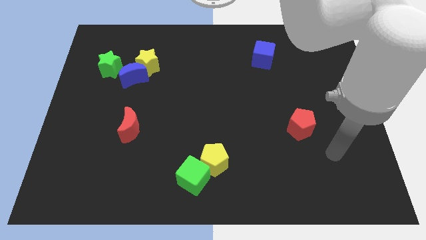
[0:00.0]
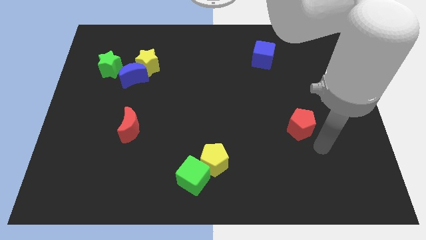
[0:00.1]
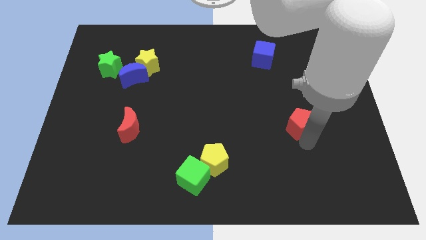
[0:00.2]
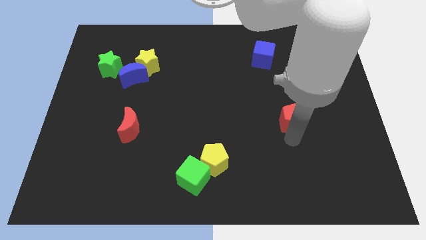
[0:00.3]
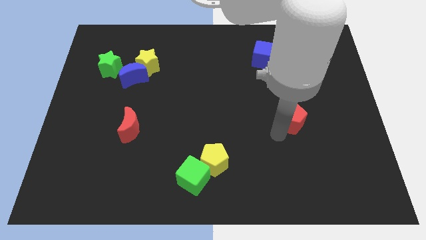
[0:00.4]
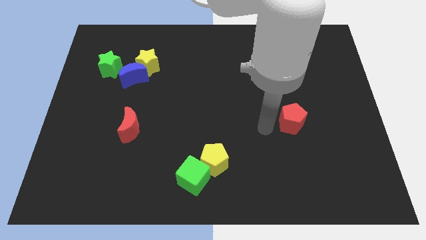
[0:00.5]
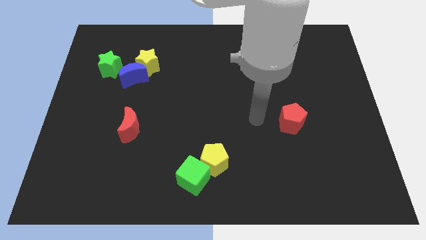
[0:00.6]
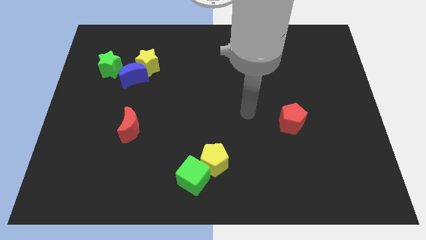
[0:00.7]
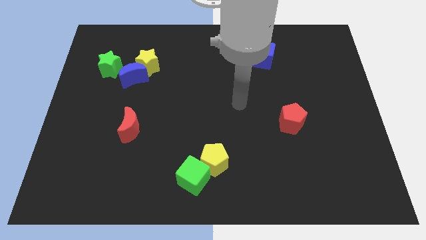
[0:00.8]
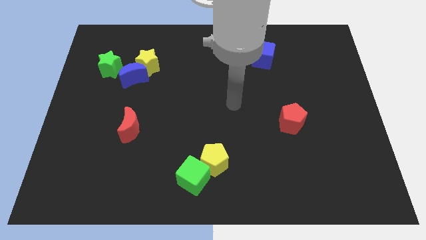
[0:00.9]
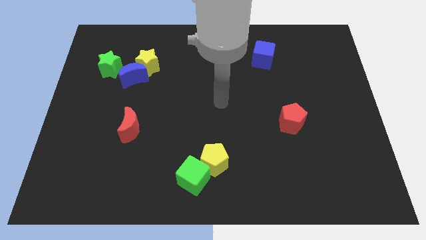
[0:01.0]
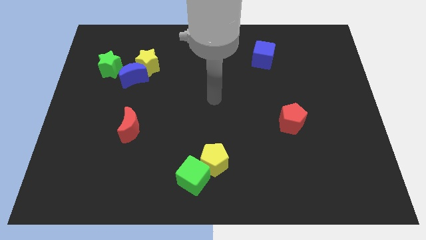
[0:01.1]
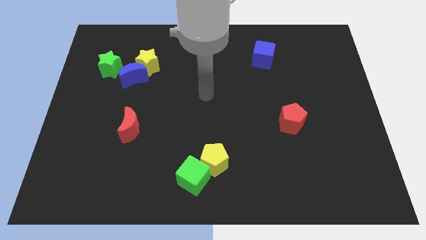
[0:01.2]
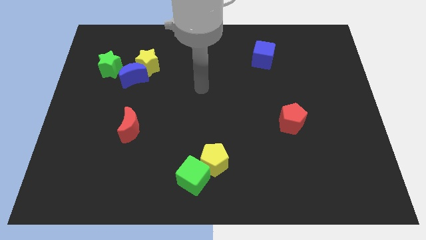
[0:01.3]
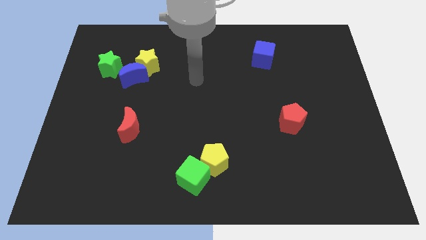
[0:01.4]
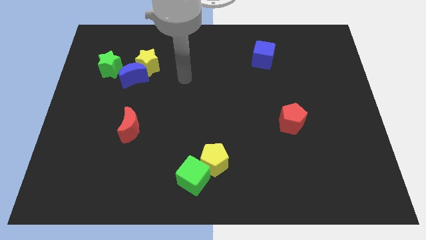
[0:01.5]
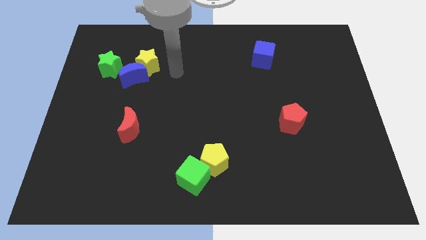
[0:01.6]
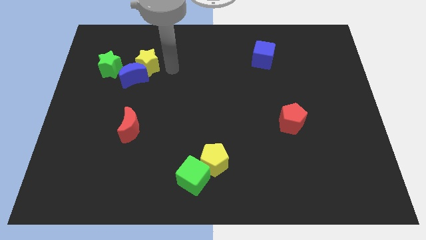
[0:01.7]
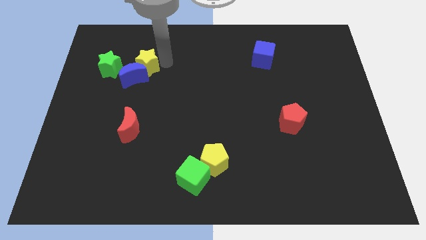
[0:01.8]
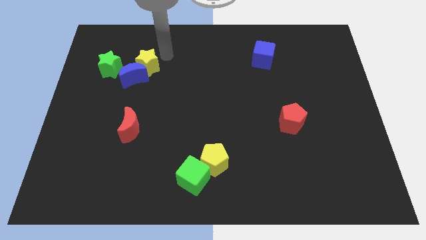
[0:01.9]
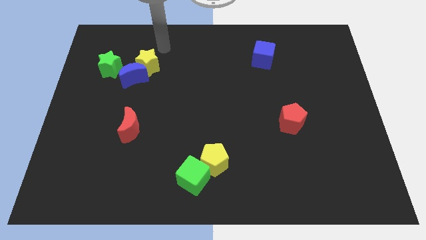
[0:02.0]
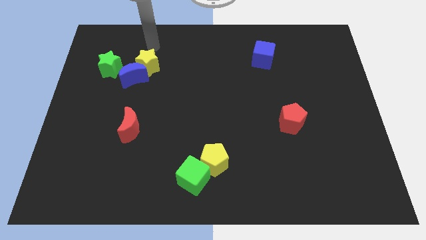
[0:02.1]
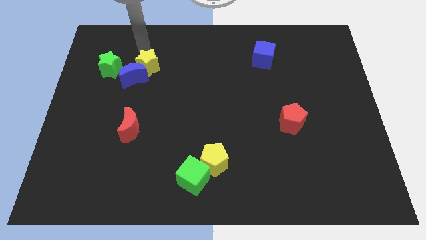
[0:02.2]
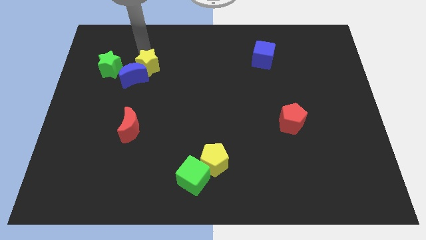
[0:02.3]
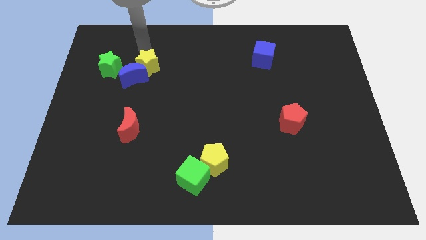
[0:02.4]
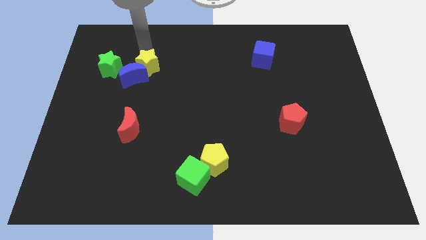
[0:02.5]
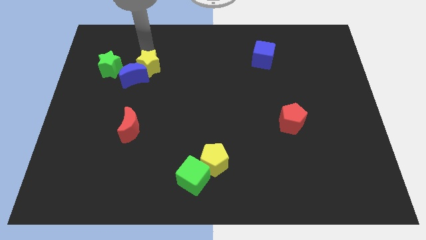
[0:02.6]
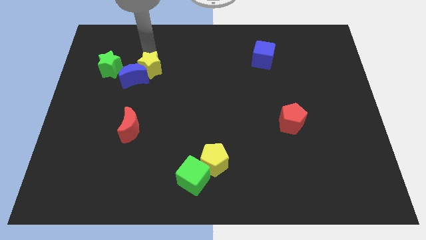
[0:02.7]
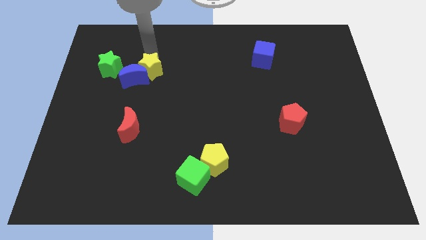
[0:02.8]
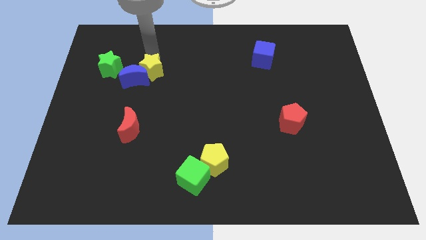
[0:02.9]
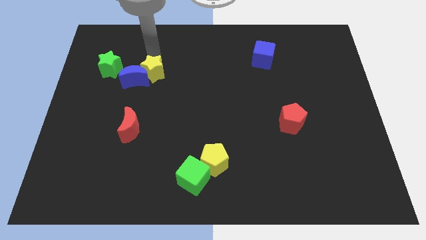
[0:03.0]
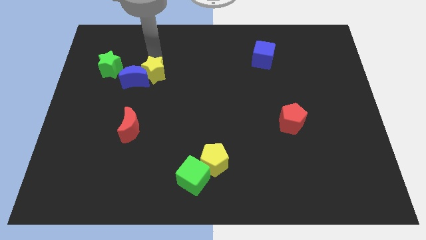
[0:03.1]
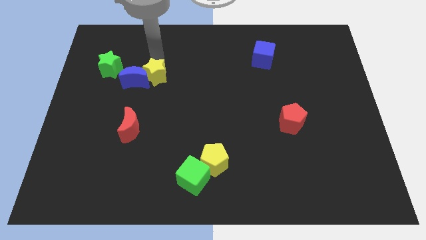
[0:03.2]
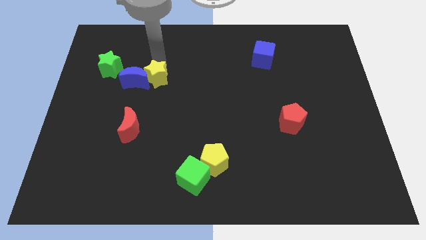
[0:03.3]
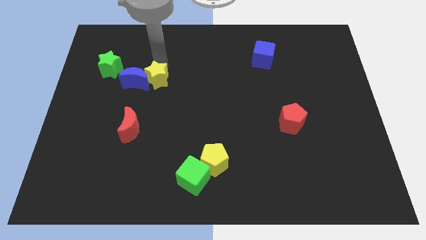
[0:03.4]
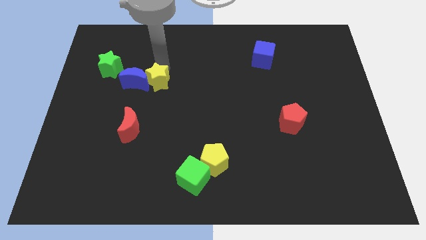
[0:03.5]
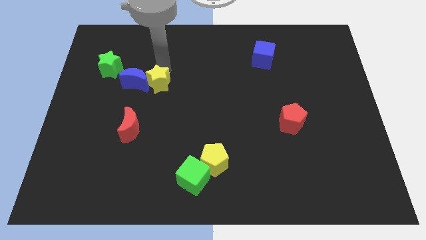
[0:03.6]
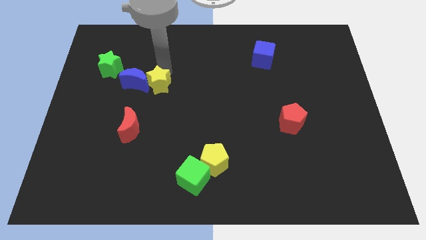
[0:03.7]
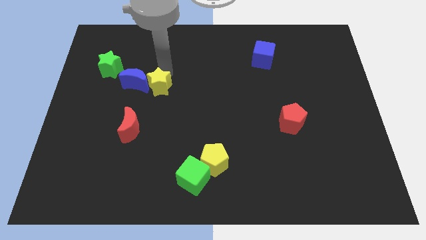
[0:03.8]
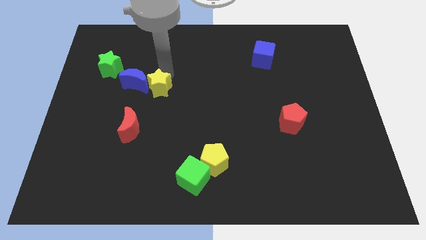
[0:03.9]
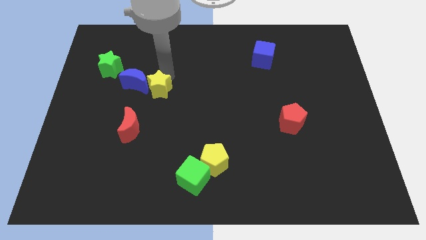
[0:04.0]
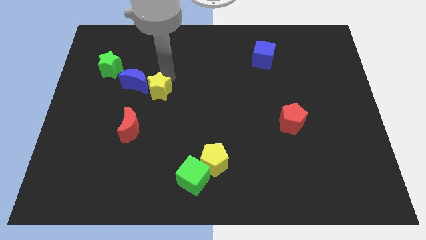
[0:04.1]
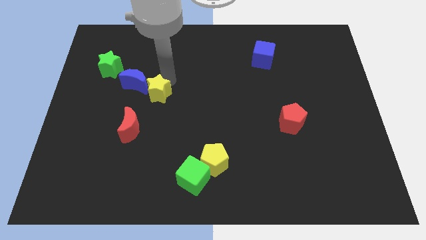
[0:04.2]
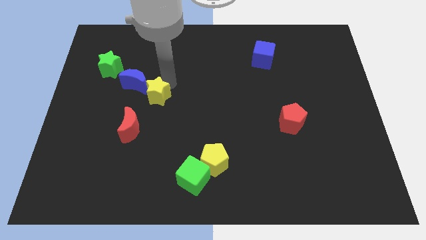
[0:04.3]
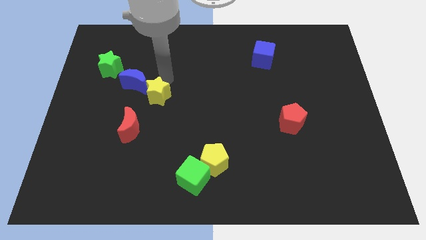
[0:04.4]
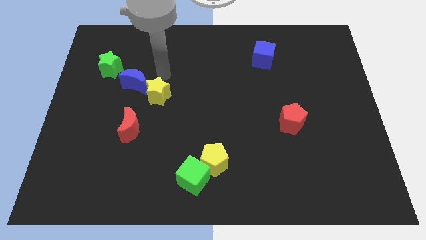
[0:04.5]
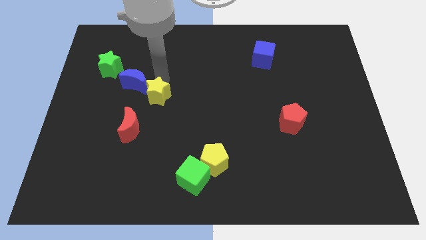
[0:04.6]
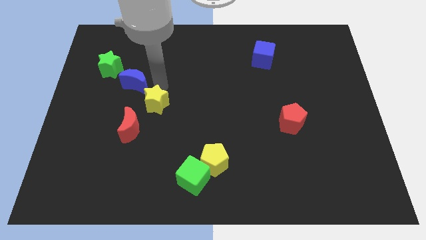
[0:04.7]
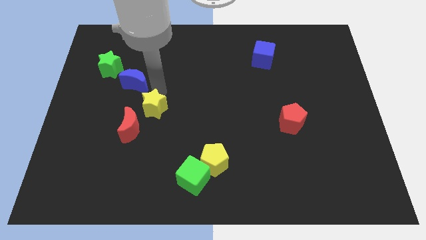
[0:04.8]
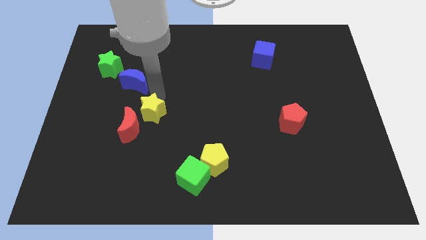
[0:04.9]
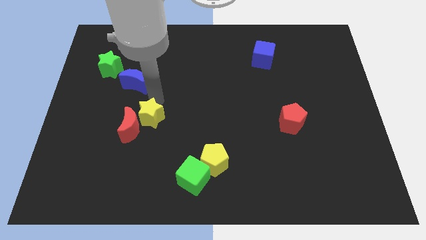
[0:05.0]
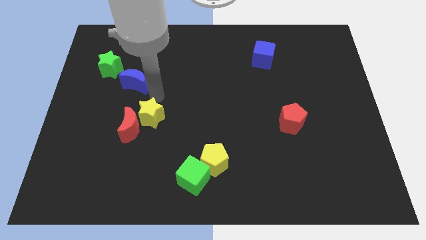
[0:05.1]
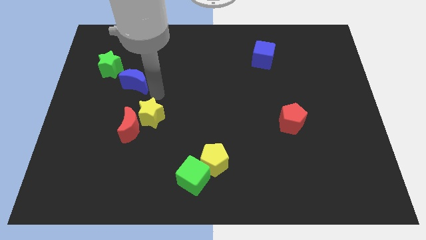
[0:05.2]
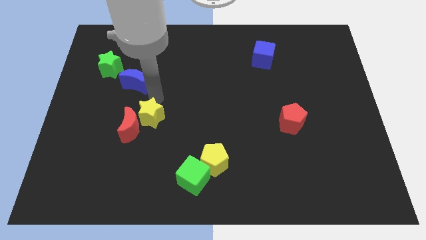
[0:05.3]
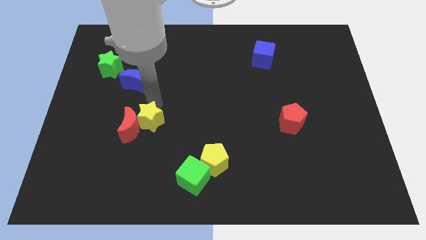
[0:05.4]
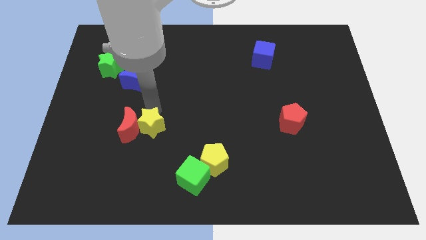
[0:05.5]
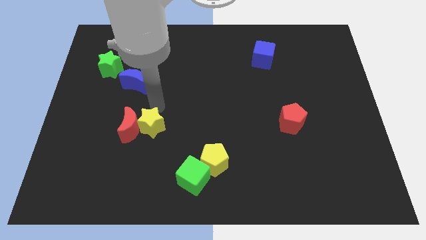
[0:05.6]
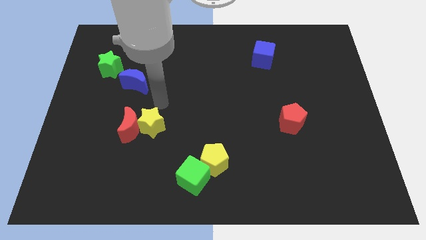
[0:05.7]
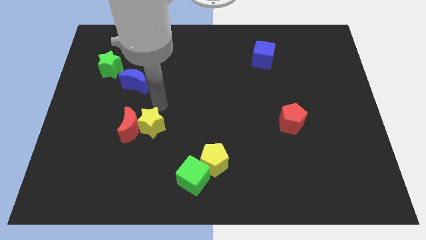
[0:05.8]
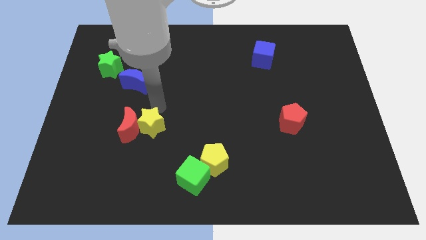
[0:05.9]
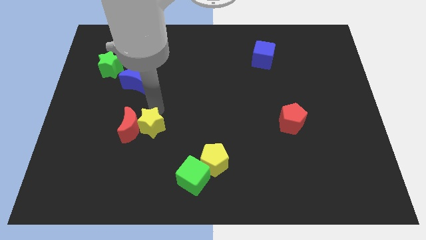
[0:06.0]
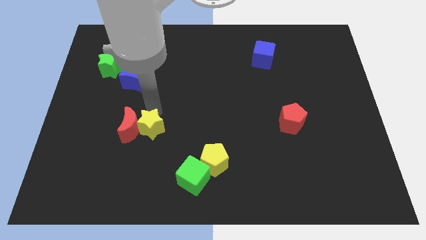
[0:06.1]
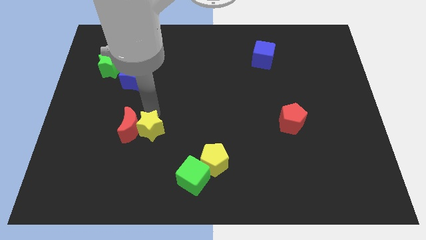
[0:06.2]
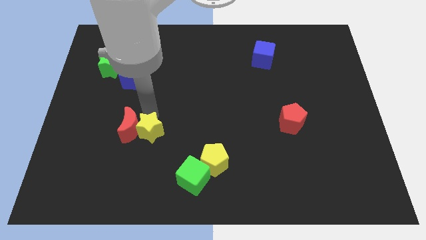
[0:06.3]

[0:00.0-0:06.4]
move the yellow star downwards

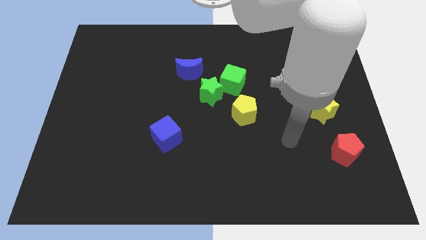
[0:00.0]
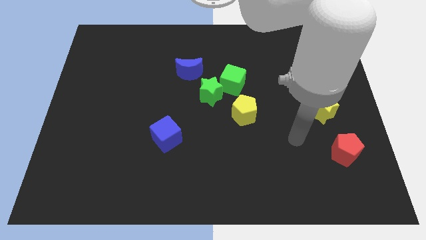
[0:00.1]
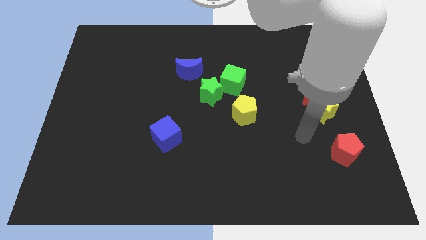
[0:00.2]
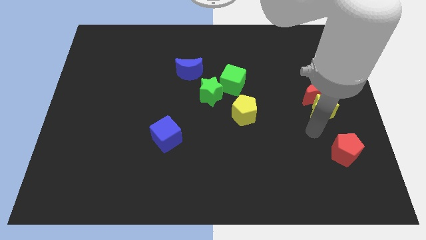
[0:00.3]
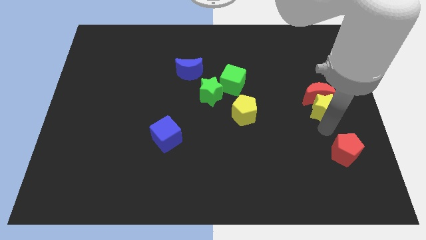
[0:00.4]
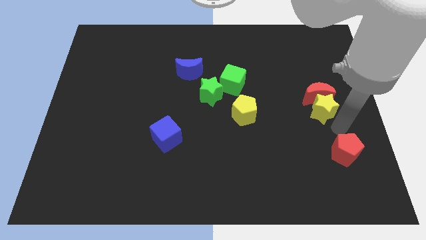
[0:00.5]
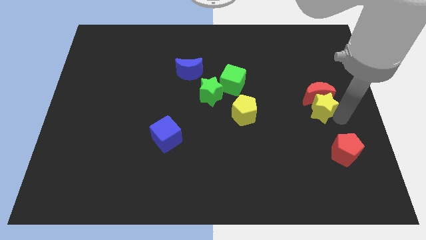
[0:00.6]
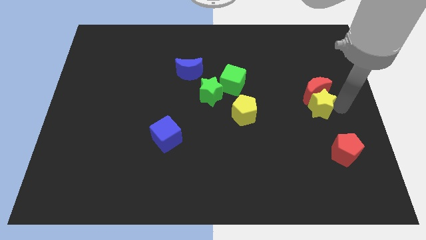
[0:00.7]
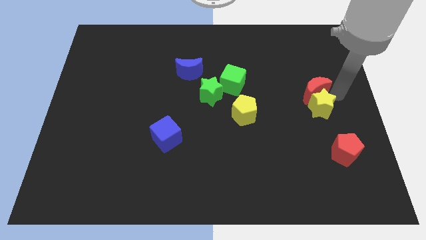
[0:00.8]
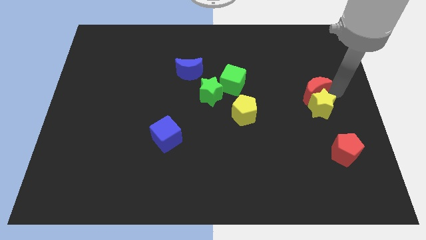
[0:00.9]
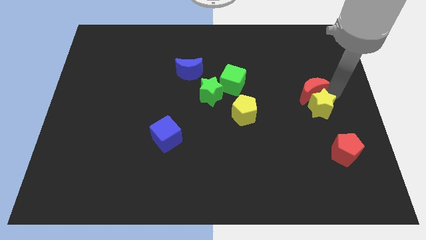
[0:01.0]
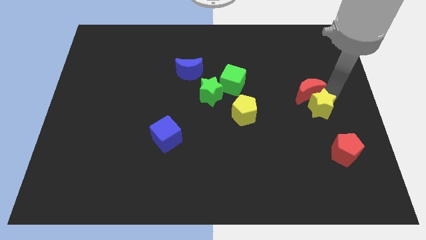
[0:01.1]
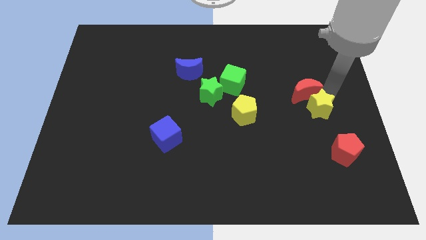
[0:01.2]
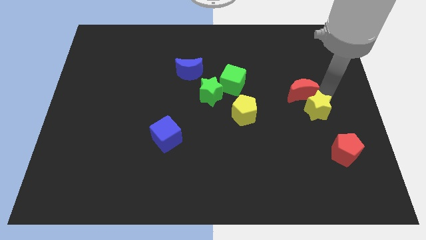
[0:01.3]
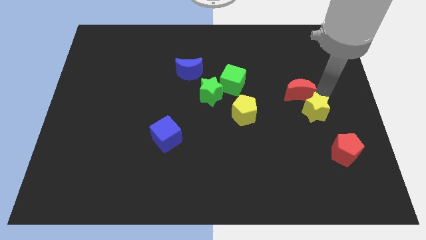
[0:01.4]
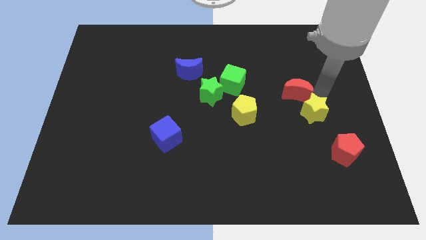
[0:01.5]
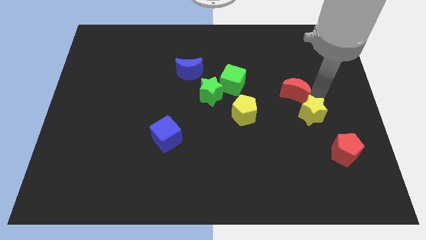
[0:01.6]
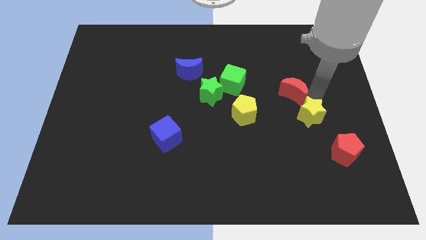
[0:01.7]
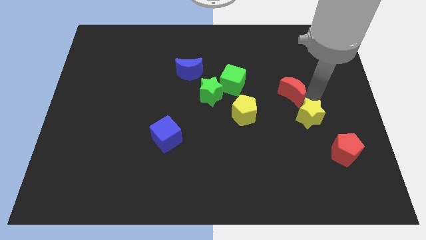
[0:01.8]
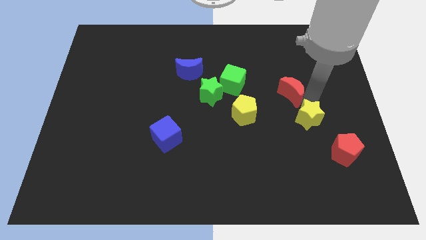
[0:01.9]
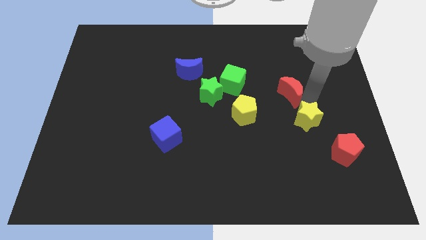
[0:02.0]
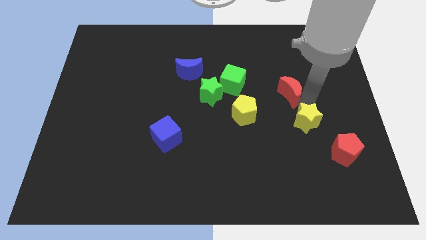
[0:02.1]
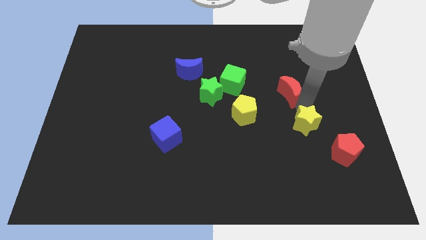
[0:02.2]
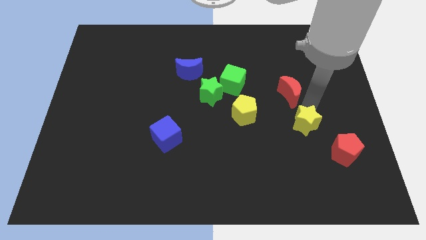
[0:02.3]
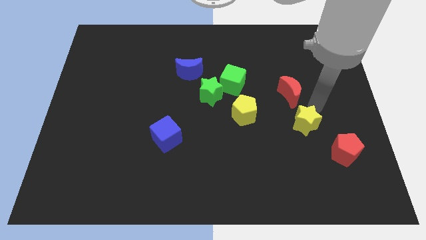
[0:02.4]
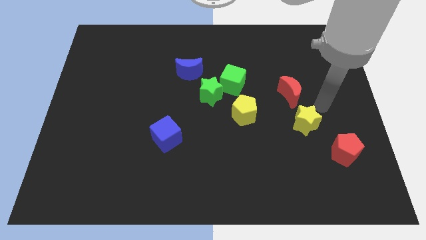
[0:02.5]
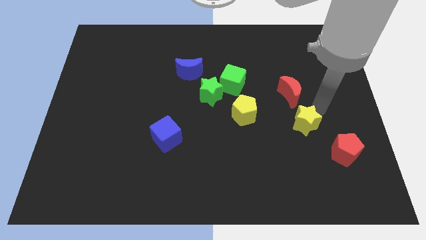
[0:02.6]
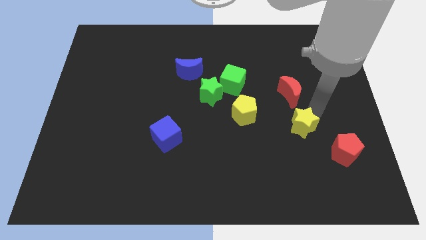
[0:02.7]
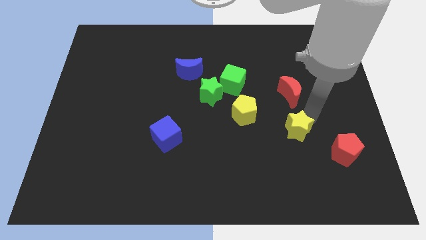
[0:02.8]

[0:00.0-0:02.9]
push the yellow star a bit downwards and to the left diagonally
